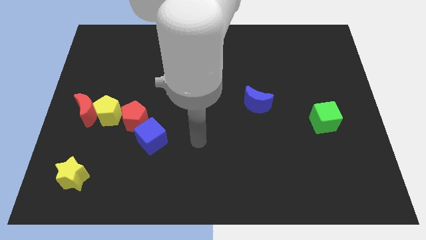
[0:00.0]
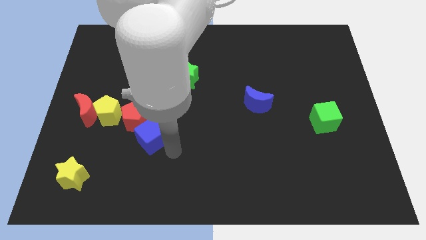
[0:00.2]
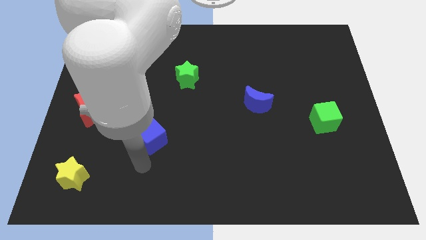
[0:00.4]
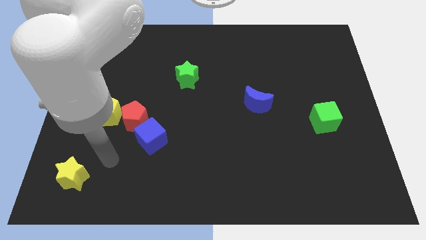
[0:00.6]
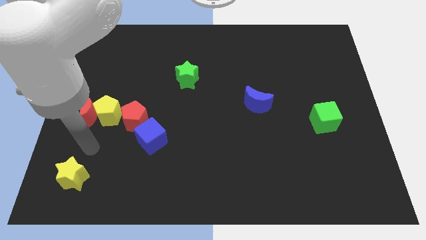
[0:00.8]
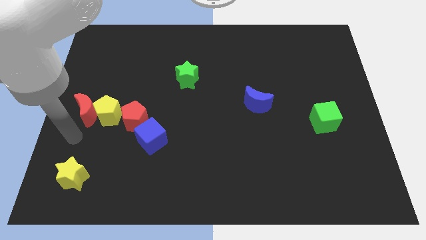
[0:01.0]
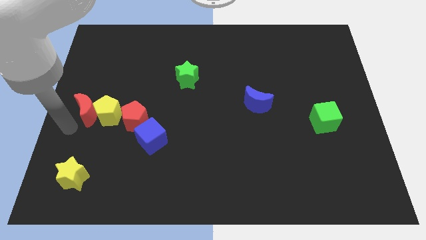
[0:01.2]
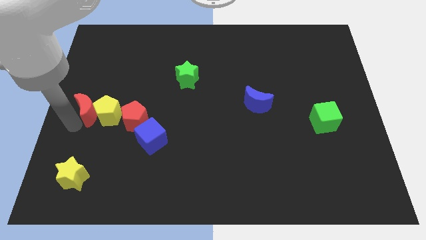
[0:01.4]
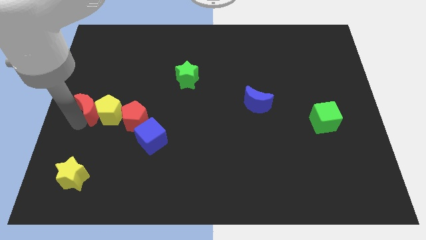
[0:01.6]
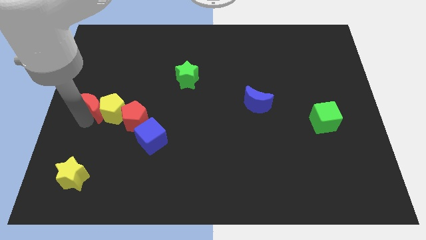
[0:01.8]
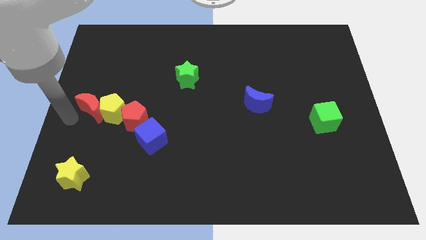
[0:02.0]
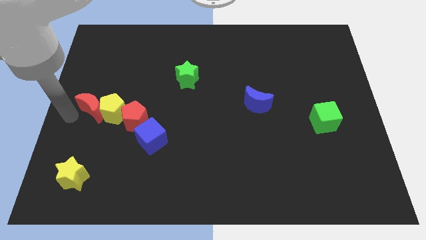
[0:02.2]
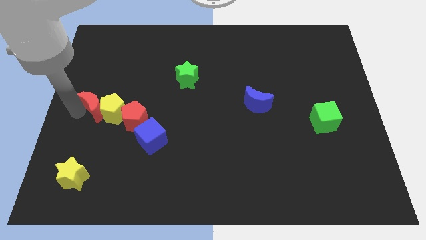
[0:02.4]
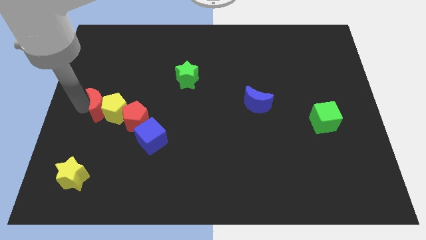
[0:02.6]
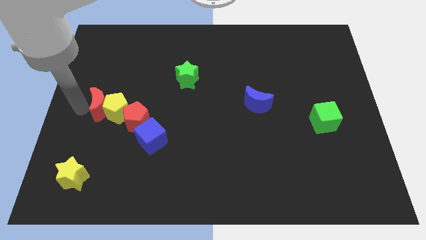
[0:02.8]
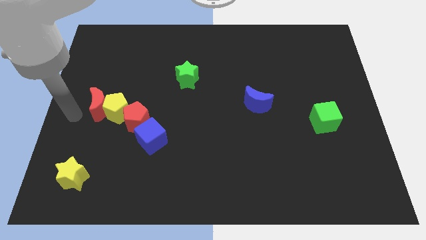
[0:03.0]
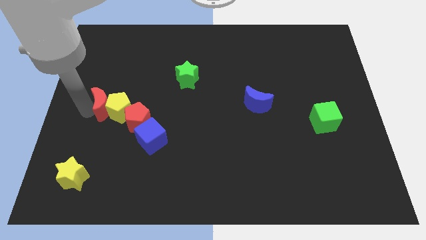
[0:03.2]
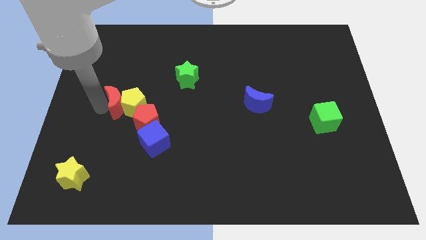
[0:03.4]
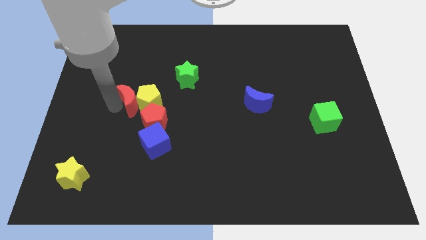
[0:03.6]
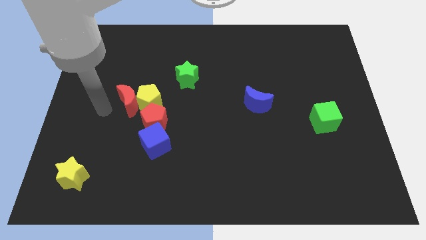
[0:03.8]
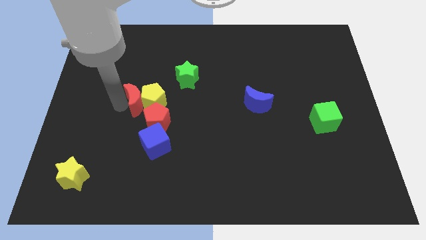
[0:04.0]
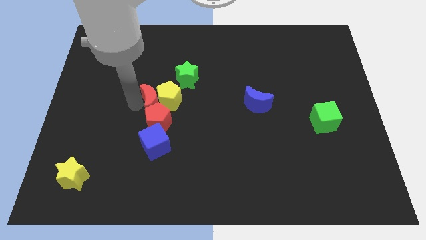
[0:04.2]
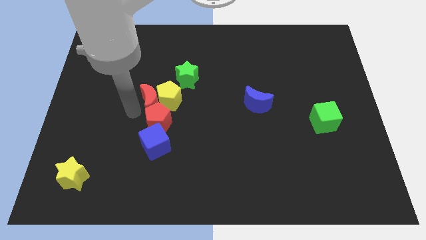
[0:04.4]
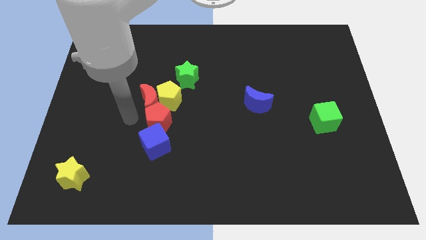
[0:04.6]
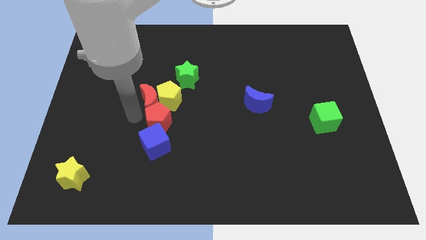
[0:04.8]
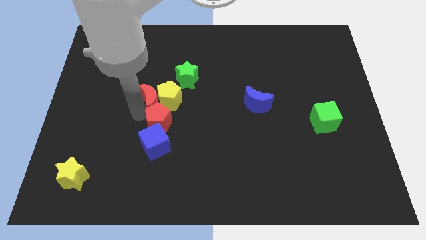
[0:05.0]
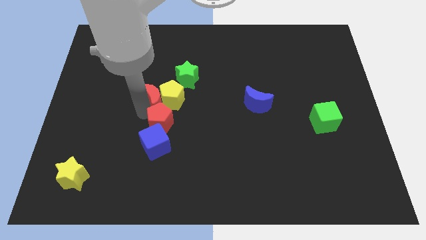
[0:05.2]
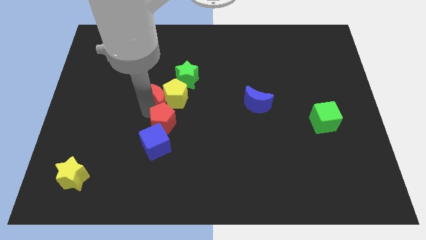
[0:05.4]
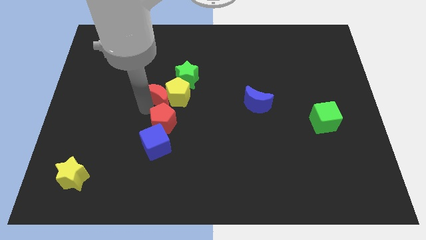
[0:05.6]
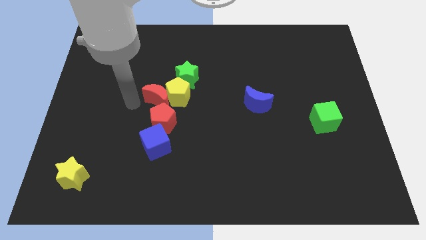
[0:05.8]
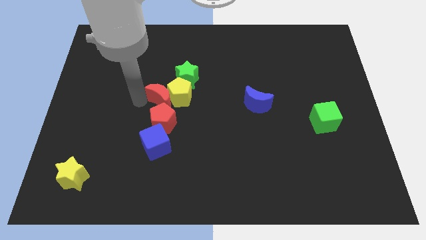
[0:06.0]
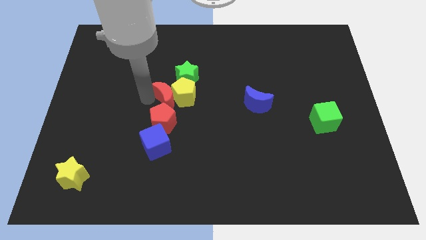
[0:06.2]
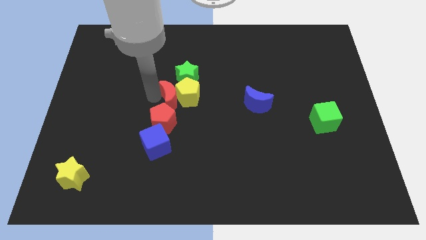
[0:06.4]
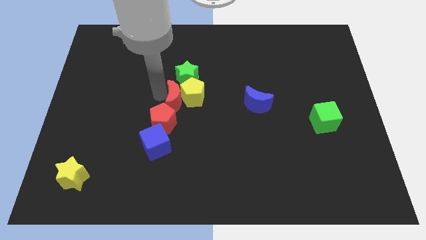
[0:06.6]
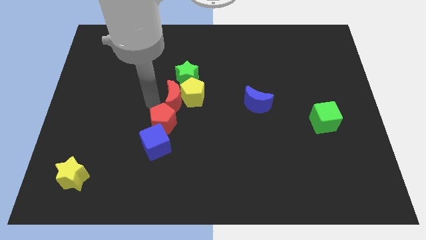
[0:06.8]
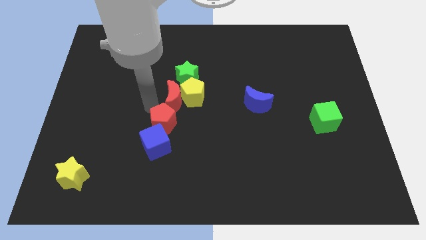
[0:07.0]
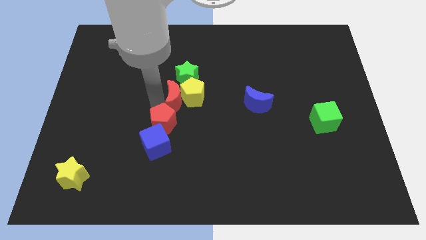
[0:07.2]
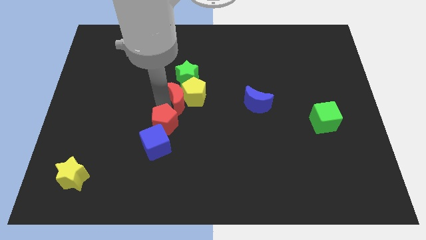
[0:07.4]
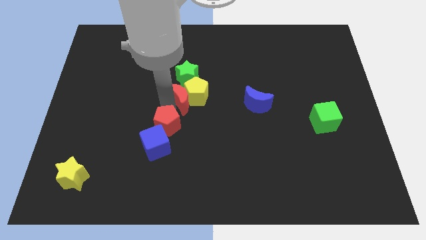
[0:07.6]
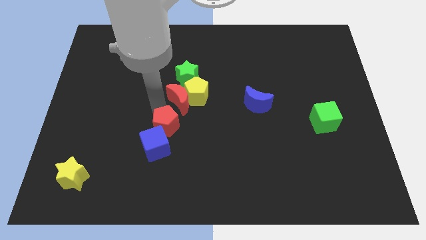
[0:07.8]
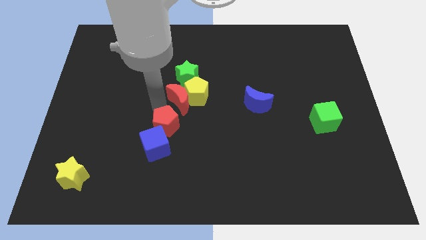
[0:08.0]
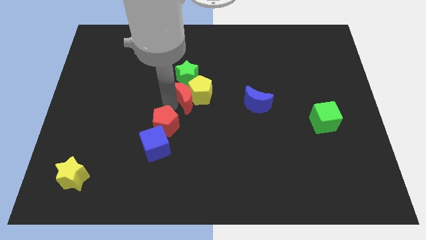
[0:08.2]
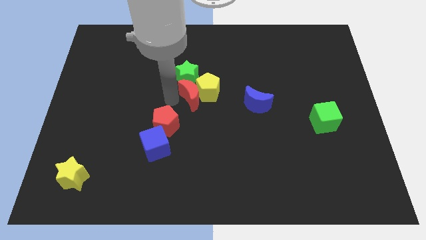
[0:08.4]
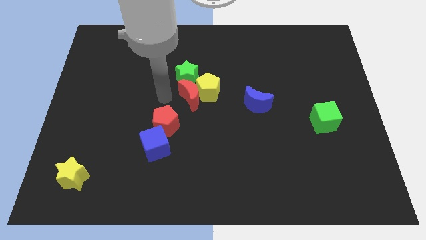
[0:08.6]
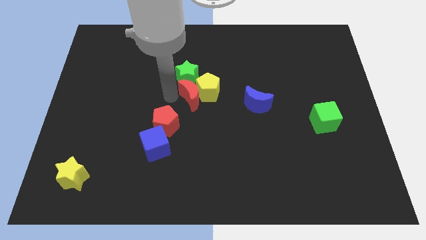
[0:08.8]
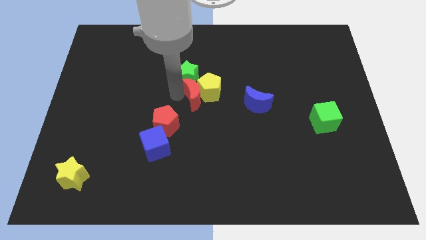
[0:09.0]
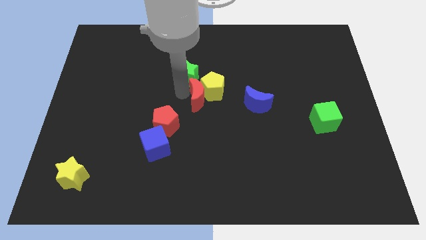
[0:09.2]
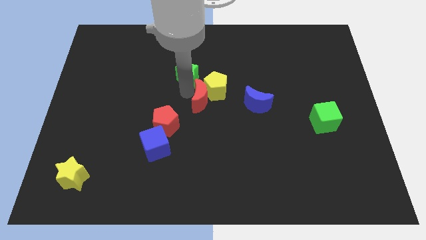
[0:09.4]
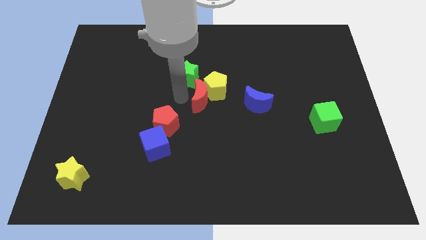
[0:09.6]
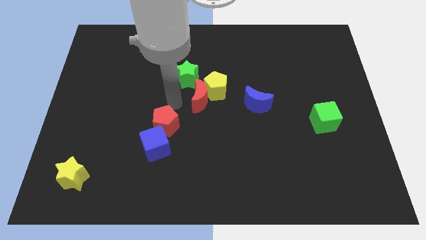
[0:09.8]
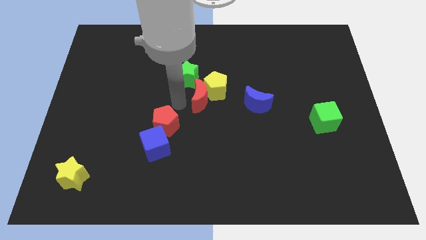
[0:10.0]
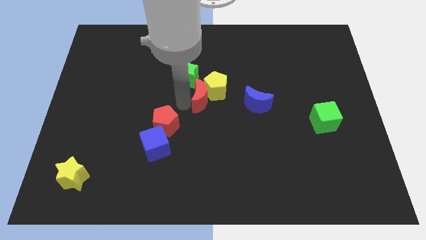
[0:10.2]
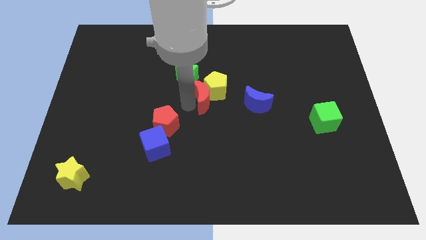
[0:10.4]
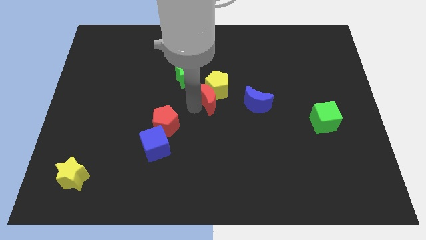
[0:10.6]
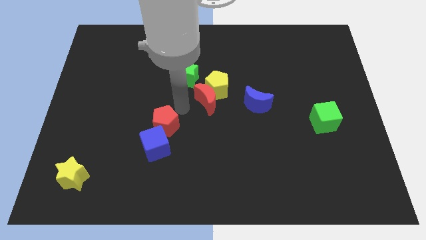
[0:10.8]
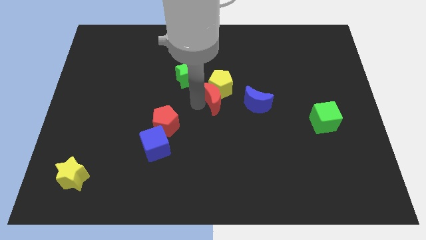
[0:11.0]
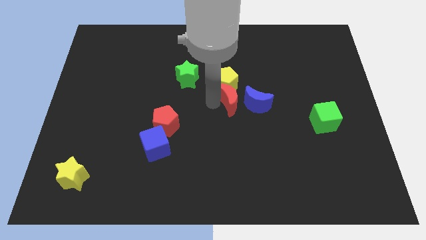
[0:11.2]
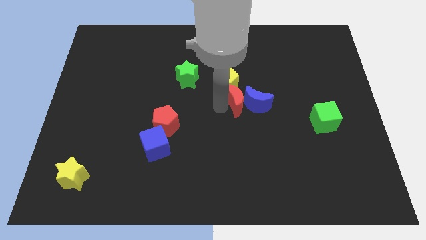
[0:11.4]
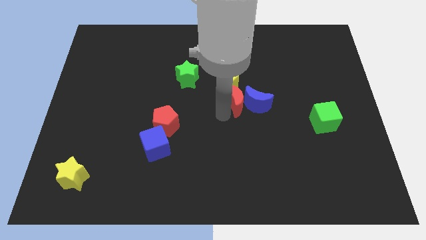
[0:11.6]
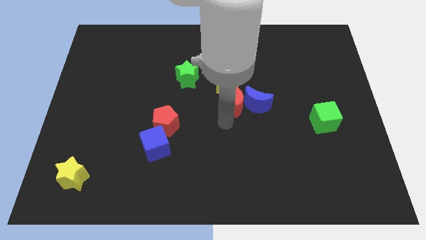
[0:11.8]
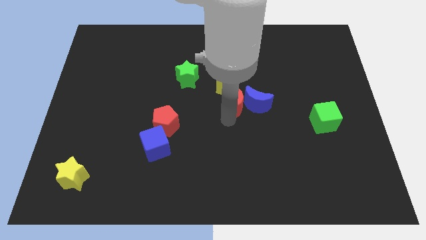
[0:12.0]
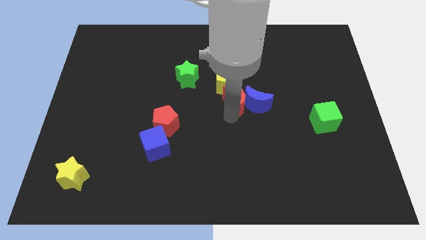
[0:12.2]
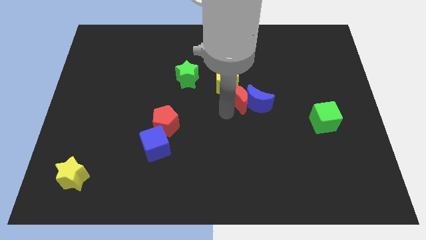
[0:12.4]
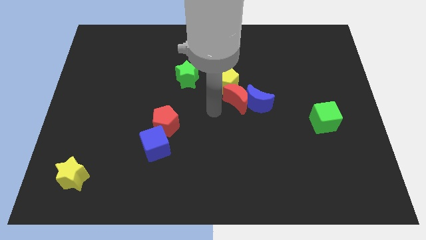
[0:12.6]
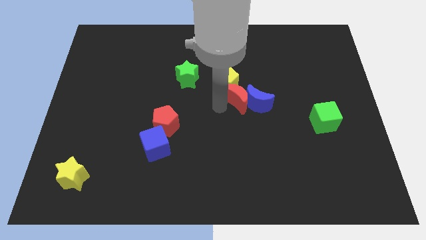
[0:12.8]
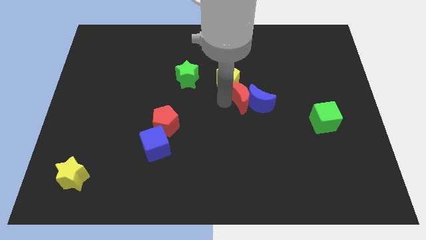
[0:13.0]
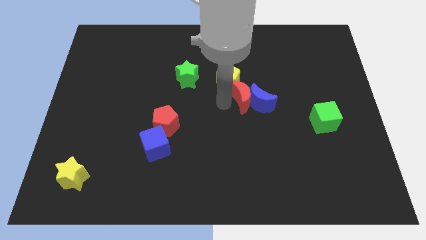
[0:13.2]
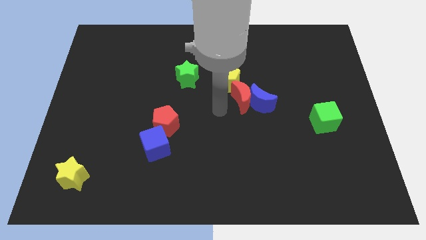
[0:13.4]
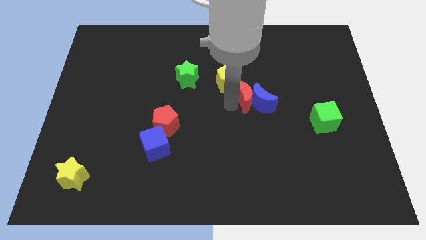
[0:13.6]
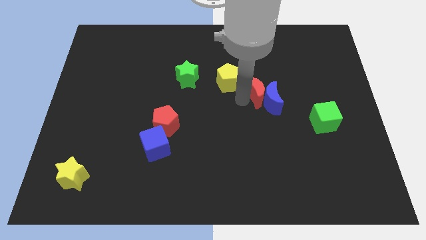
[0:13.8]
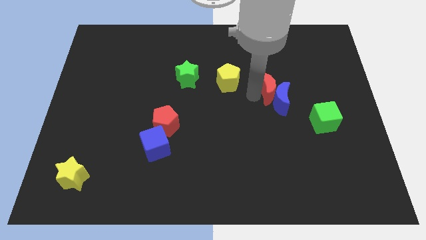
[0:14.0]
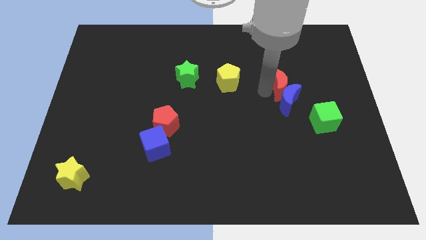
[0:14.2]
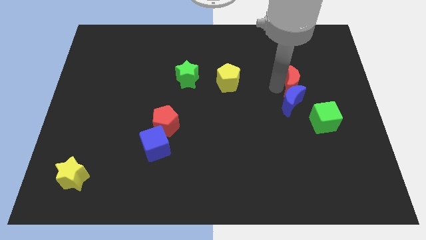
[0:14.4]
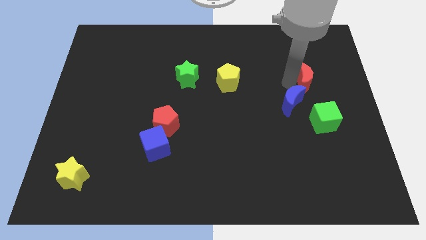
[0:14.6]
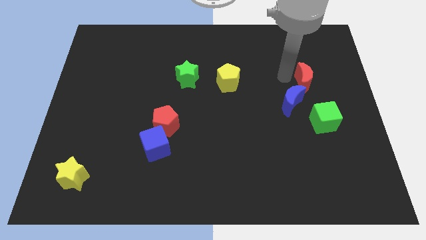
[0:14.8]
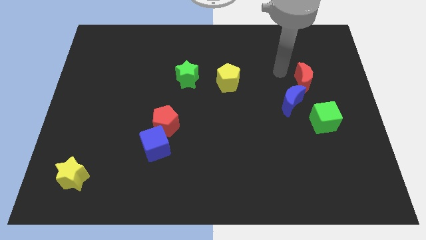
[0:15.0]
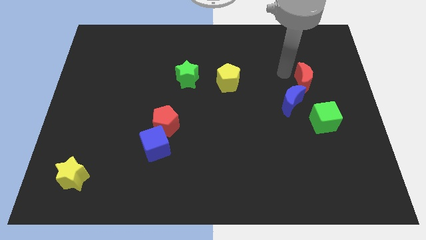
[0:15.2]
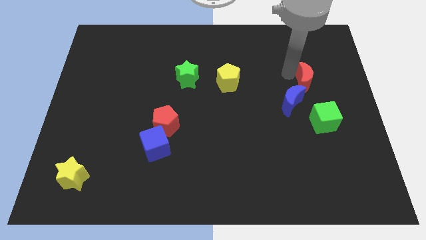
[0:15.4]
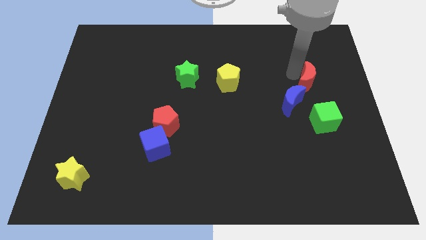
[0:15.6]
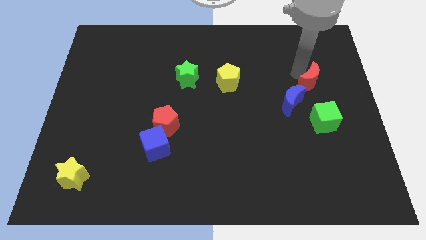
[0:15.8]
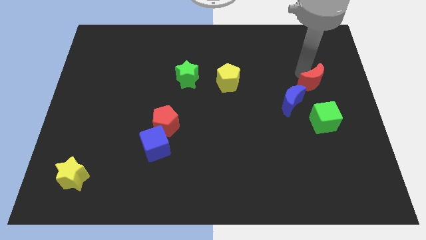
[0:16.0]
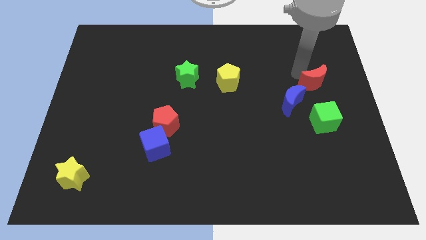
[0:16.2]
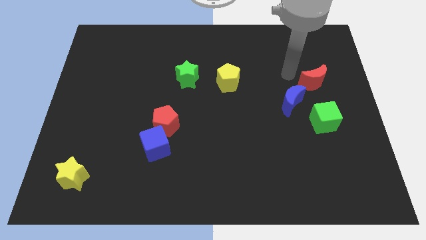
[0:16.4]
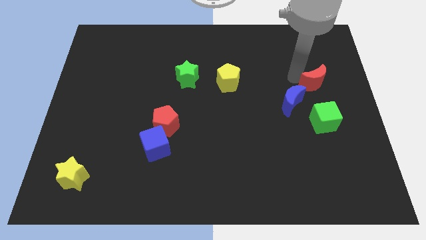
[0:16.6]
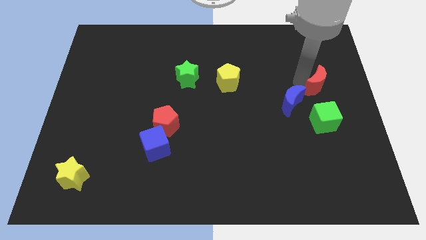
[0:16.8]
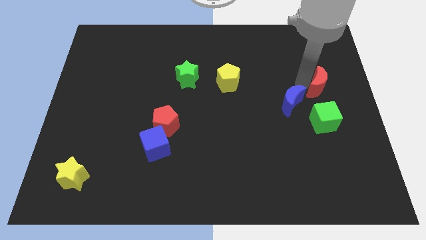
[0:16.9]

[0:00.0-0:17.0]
move the red moon to the right side
